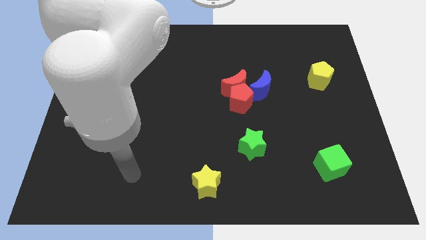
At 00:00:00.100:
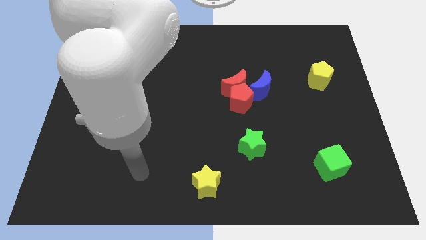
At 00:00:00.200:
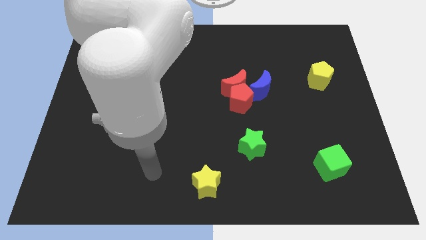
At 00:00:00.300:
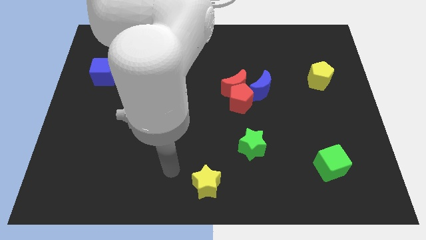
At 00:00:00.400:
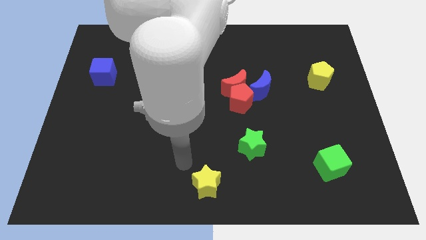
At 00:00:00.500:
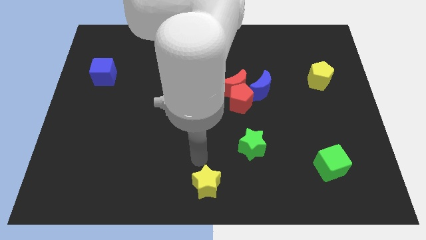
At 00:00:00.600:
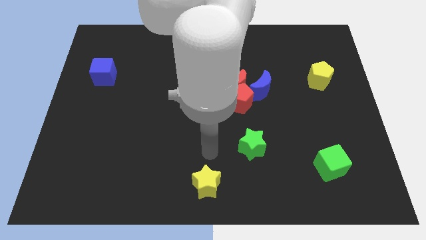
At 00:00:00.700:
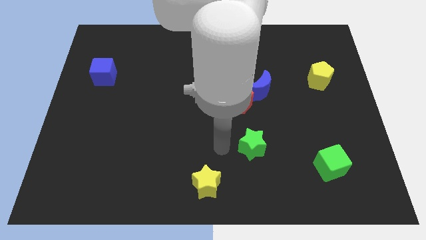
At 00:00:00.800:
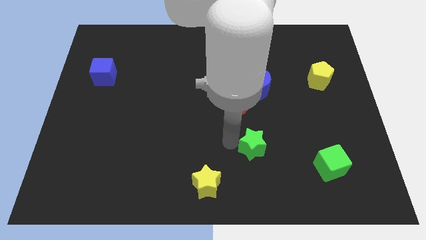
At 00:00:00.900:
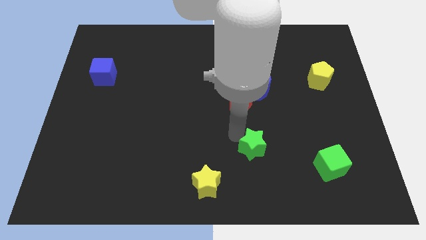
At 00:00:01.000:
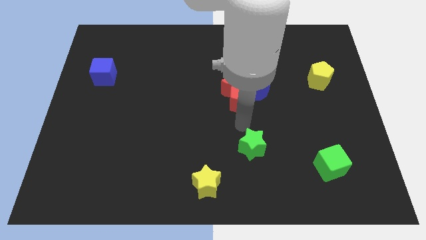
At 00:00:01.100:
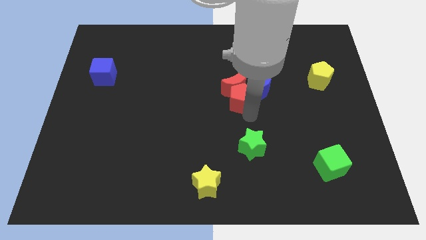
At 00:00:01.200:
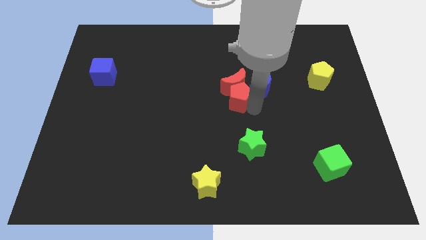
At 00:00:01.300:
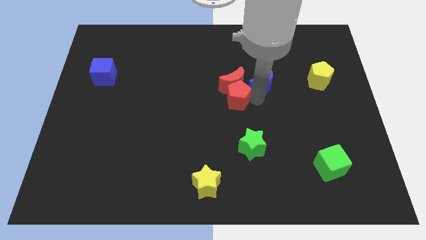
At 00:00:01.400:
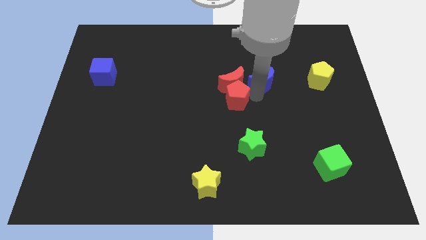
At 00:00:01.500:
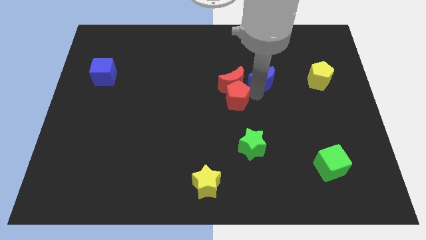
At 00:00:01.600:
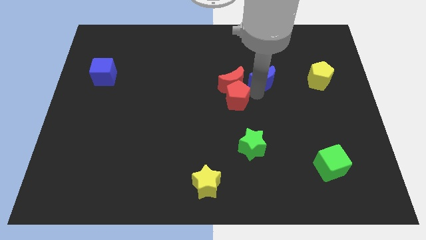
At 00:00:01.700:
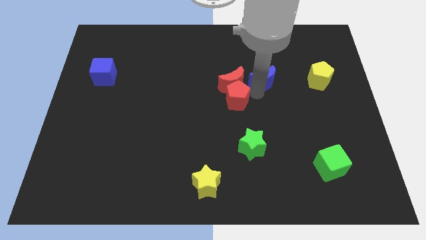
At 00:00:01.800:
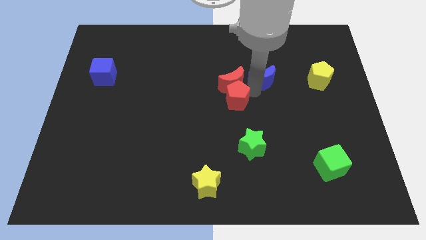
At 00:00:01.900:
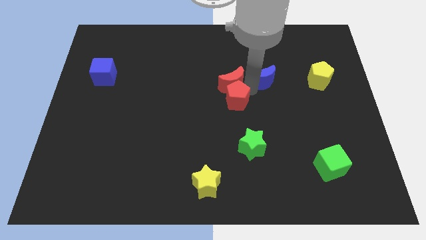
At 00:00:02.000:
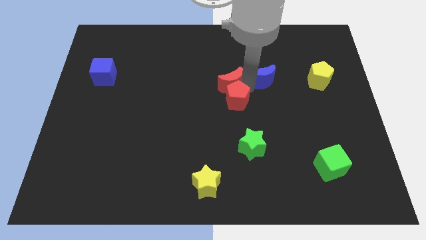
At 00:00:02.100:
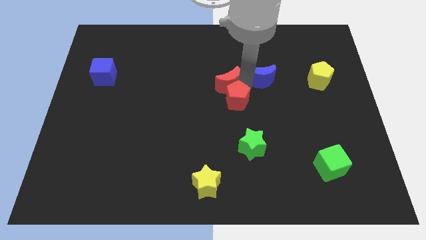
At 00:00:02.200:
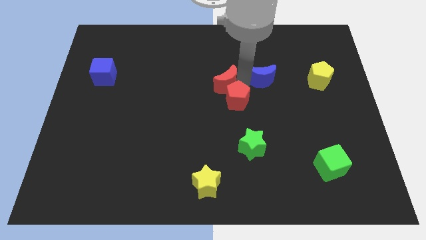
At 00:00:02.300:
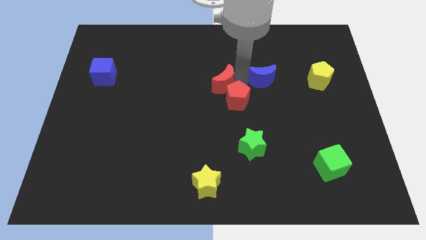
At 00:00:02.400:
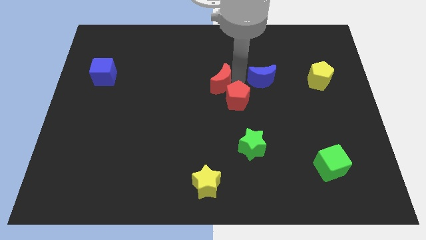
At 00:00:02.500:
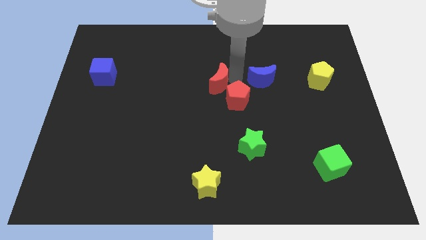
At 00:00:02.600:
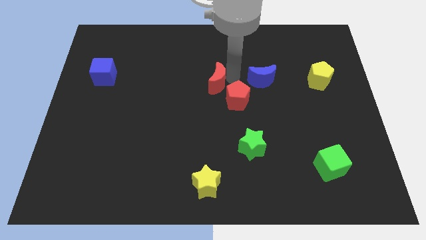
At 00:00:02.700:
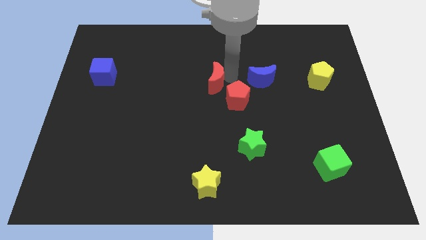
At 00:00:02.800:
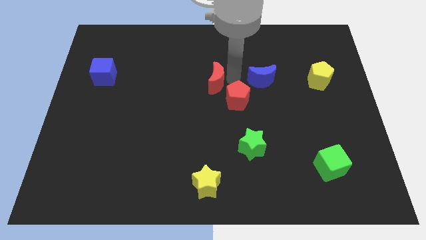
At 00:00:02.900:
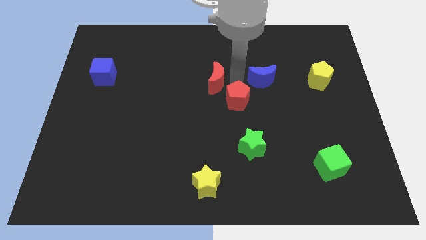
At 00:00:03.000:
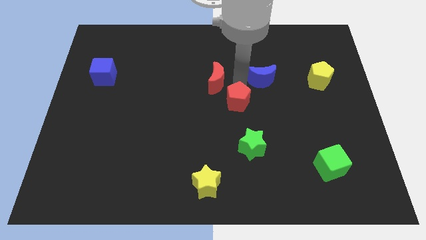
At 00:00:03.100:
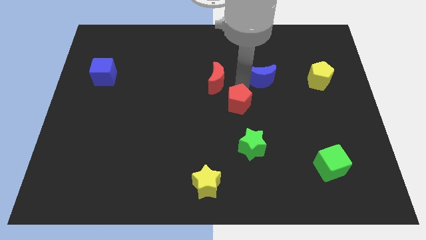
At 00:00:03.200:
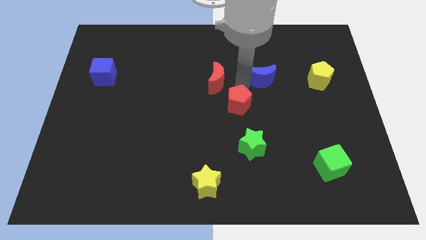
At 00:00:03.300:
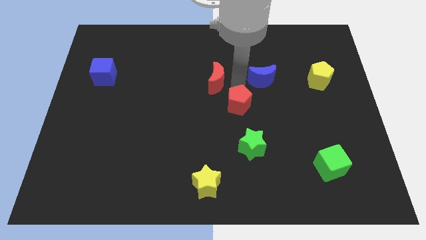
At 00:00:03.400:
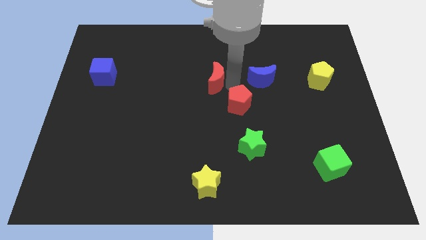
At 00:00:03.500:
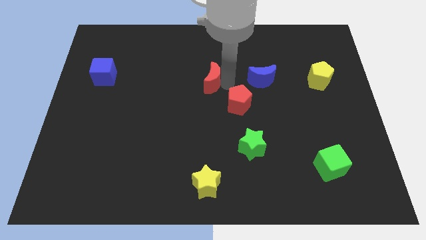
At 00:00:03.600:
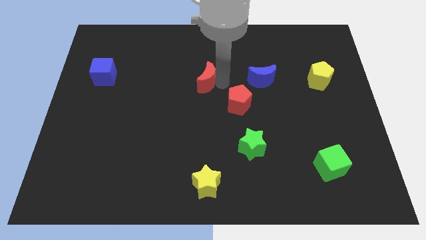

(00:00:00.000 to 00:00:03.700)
separate the red moon from the red pentagon and blue moon

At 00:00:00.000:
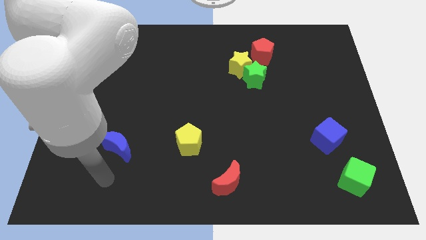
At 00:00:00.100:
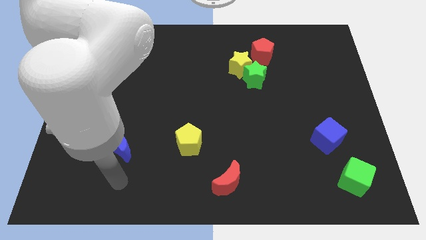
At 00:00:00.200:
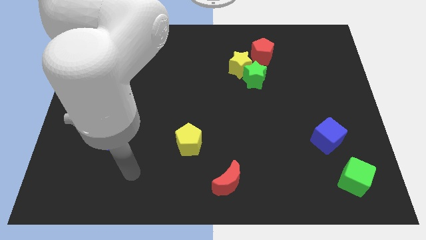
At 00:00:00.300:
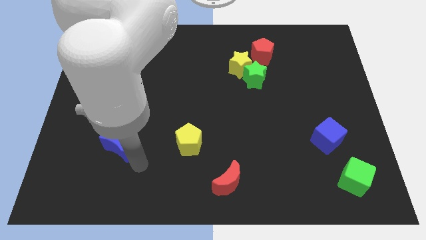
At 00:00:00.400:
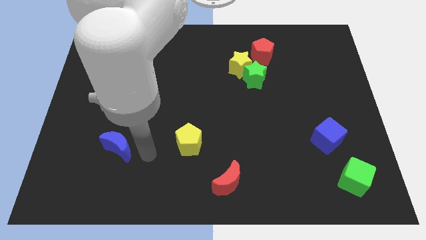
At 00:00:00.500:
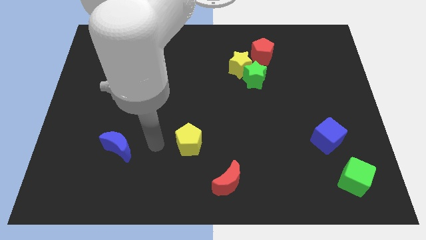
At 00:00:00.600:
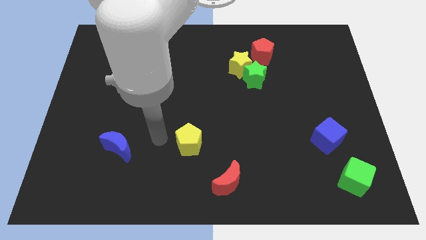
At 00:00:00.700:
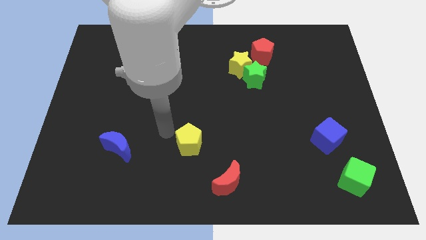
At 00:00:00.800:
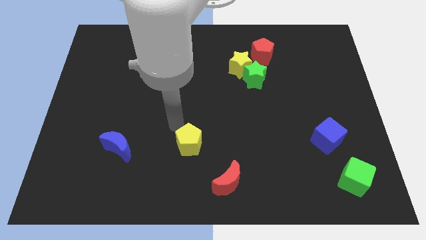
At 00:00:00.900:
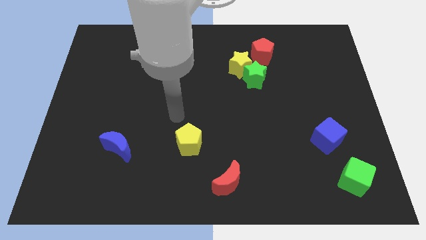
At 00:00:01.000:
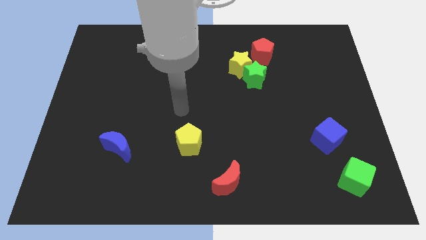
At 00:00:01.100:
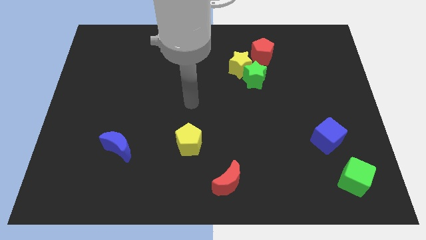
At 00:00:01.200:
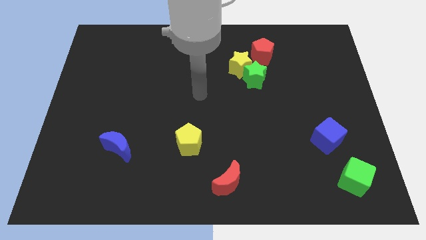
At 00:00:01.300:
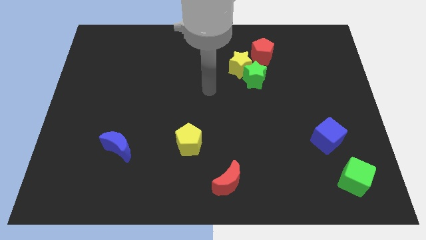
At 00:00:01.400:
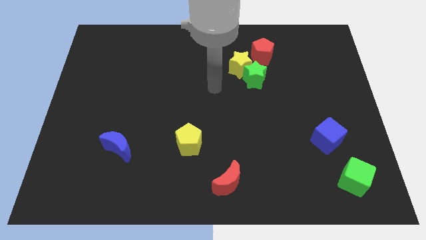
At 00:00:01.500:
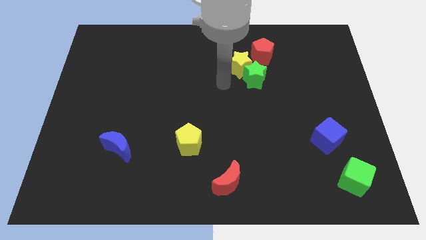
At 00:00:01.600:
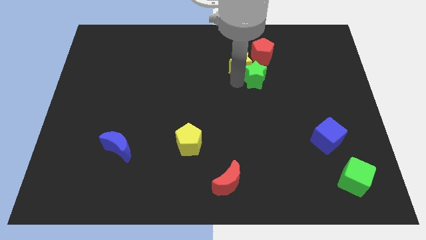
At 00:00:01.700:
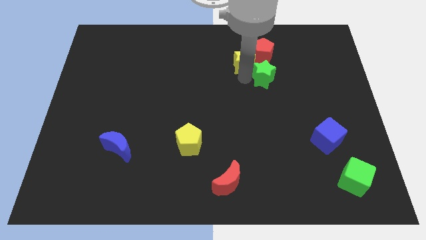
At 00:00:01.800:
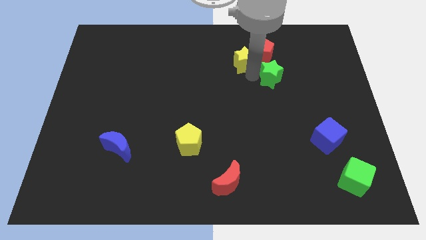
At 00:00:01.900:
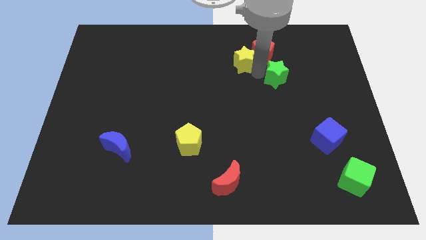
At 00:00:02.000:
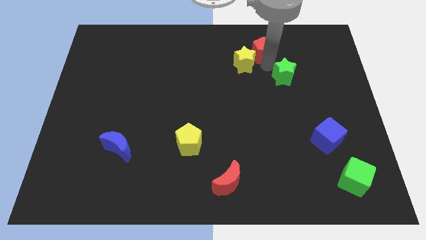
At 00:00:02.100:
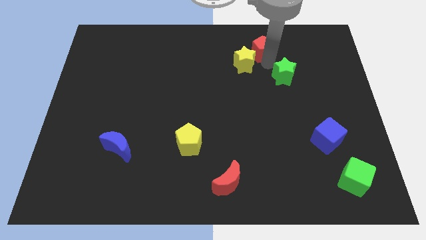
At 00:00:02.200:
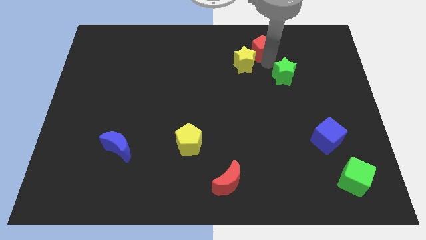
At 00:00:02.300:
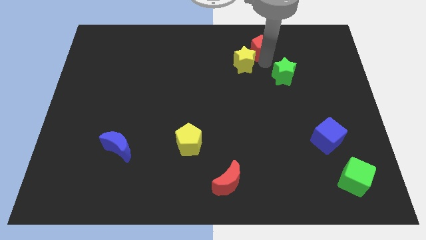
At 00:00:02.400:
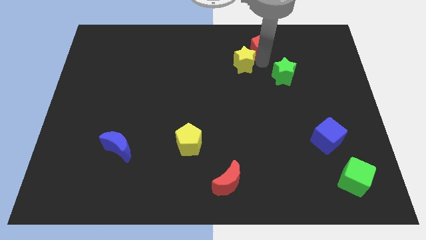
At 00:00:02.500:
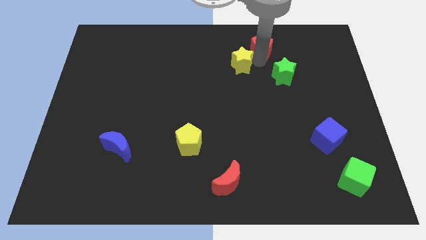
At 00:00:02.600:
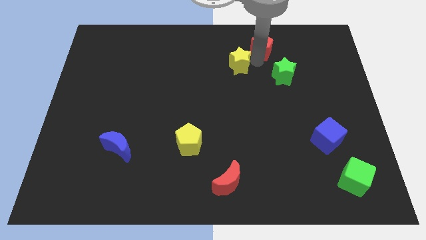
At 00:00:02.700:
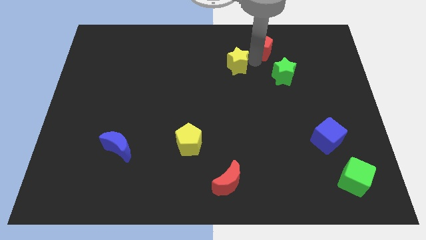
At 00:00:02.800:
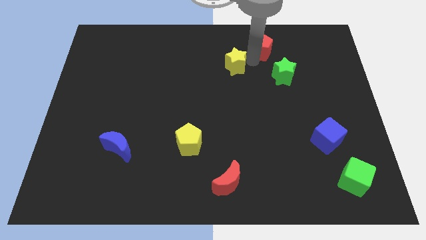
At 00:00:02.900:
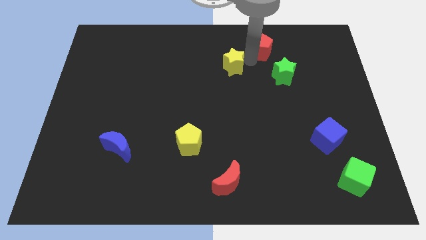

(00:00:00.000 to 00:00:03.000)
move the yellow star away from the green star and red pentagon

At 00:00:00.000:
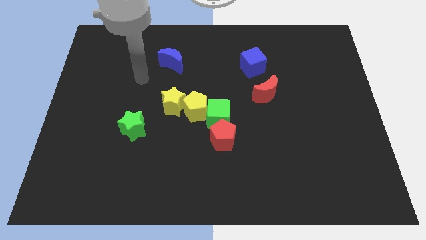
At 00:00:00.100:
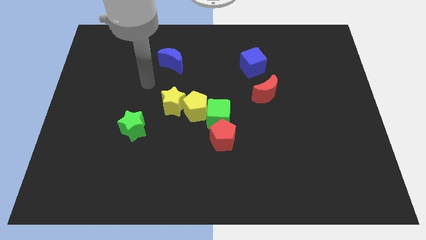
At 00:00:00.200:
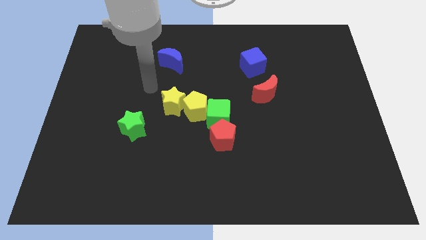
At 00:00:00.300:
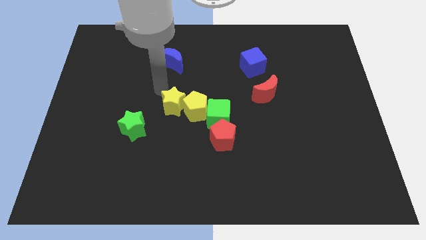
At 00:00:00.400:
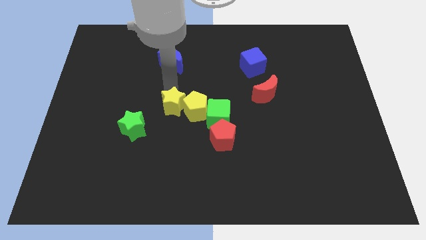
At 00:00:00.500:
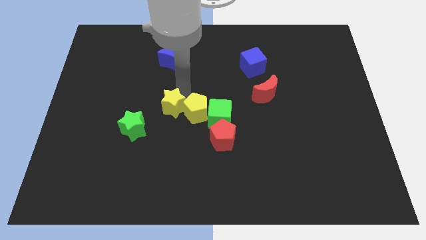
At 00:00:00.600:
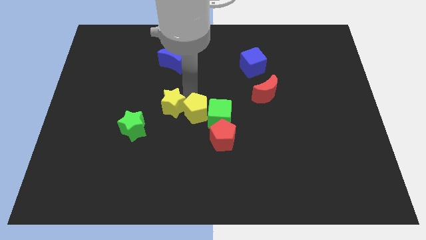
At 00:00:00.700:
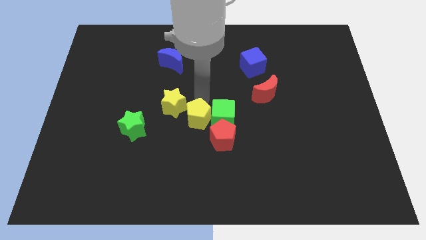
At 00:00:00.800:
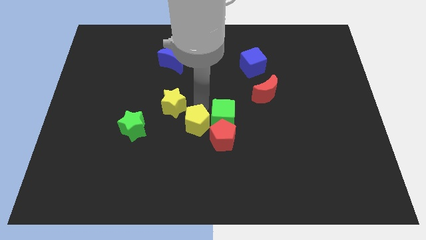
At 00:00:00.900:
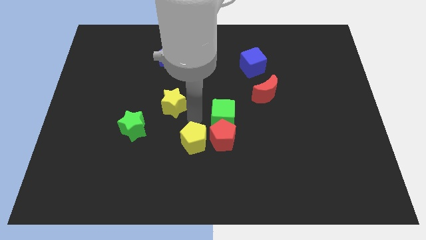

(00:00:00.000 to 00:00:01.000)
pull the yellow star apart from the yellow pentagon

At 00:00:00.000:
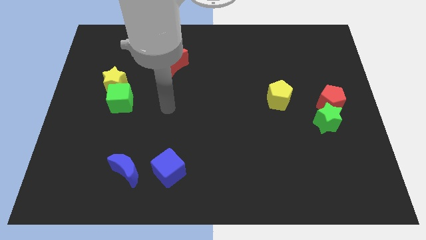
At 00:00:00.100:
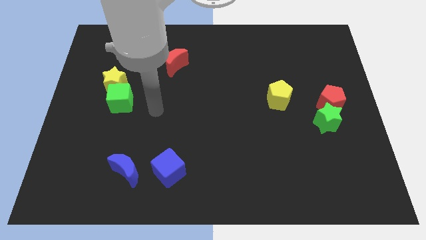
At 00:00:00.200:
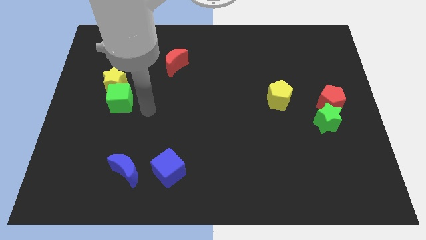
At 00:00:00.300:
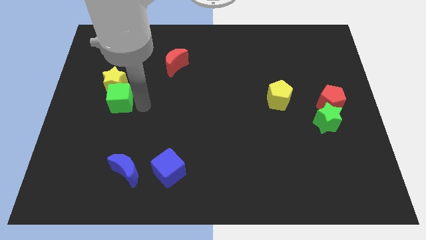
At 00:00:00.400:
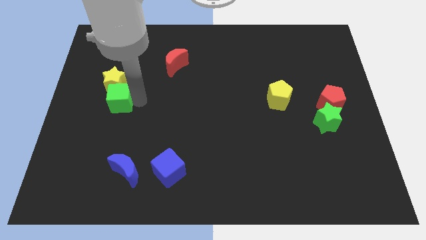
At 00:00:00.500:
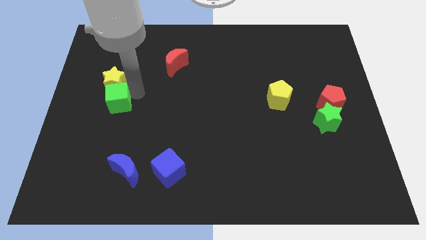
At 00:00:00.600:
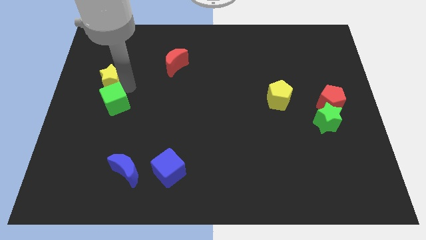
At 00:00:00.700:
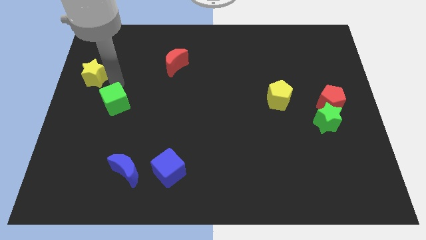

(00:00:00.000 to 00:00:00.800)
move the green cube away from the yellow star

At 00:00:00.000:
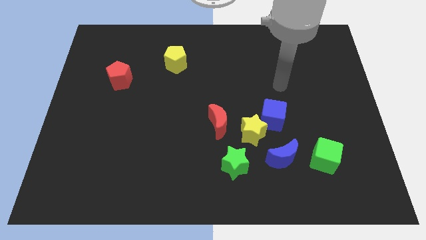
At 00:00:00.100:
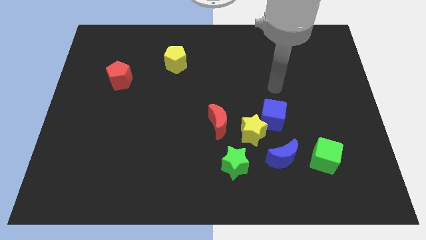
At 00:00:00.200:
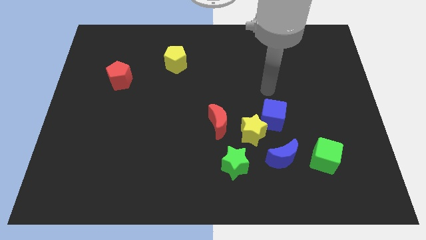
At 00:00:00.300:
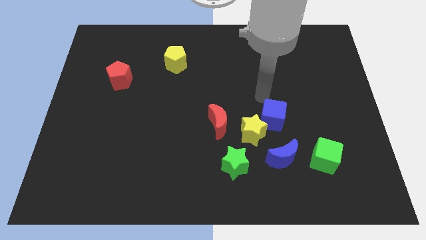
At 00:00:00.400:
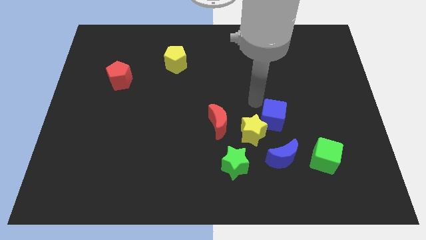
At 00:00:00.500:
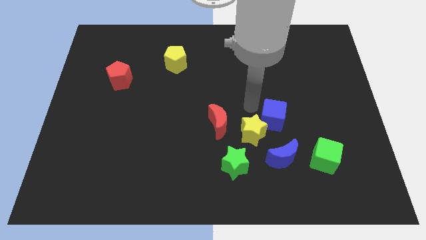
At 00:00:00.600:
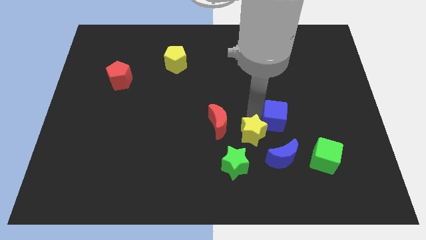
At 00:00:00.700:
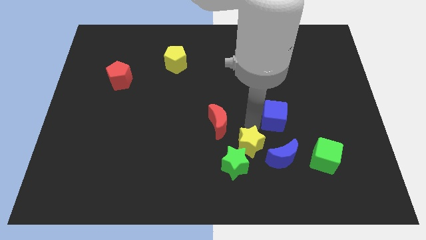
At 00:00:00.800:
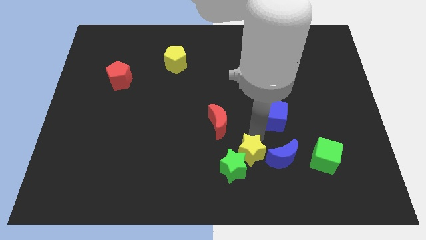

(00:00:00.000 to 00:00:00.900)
move the blue cube away from the yellow star
